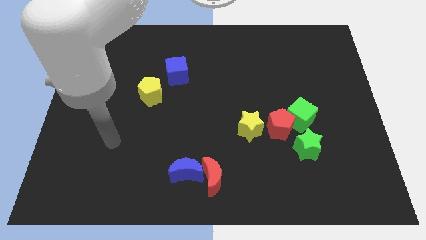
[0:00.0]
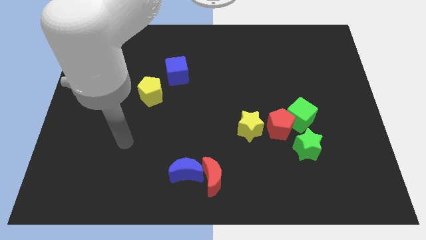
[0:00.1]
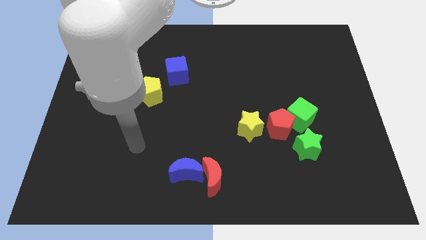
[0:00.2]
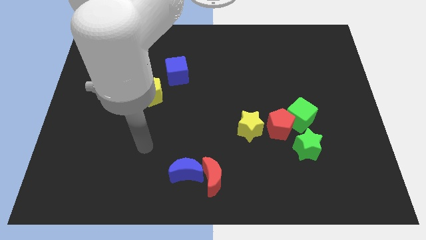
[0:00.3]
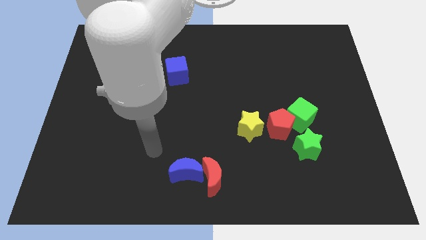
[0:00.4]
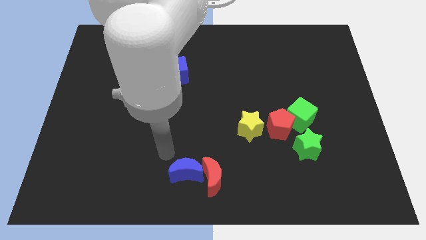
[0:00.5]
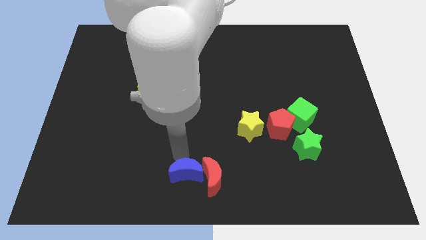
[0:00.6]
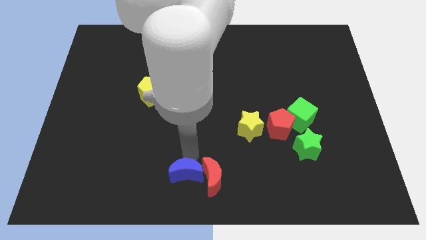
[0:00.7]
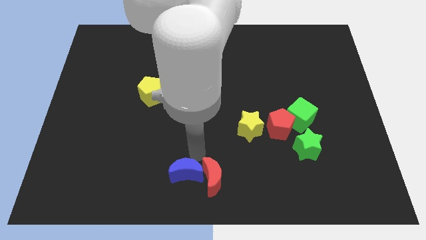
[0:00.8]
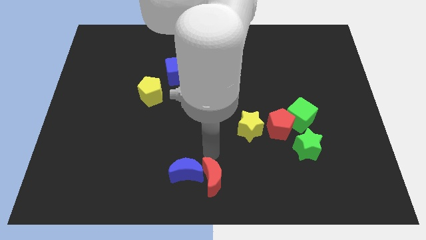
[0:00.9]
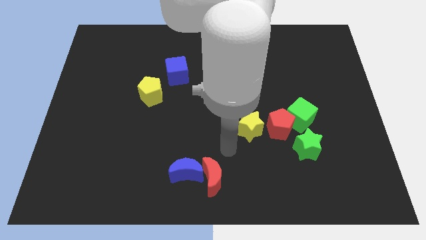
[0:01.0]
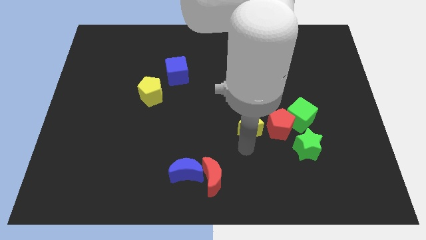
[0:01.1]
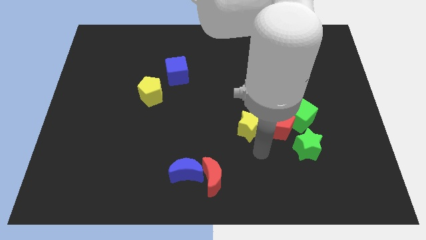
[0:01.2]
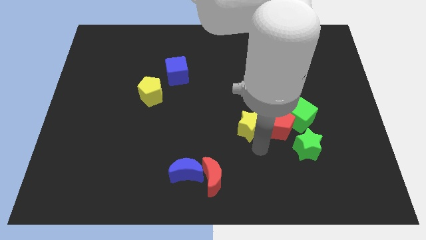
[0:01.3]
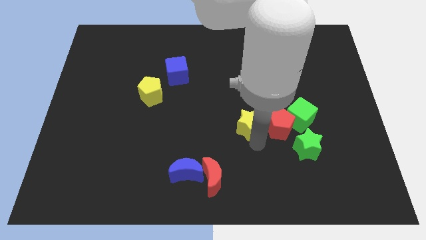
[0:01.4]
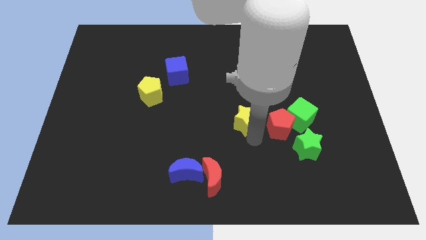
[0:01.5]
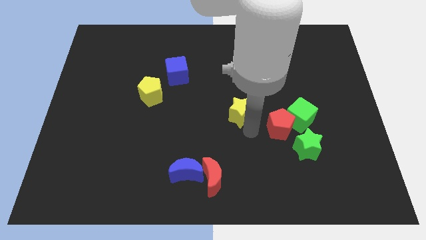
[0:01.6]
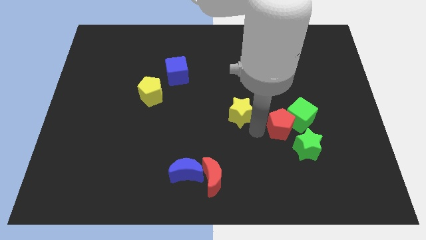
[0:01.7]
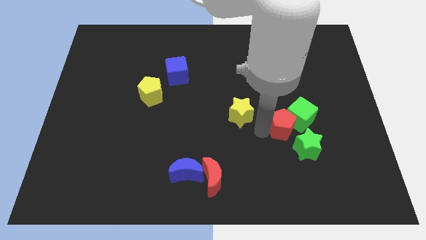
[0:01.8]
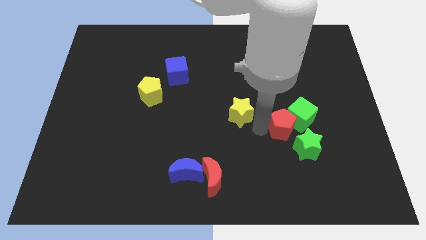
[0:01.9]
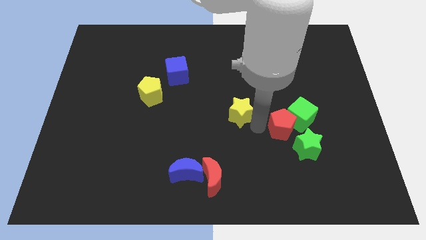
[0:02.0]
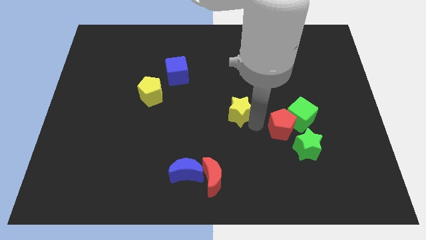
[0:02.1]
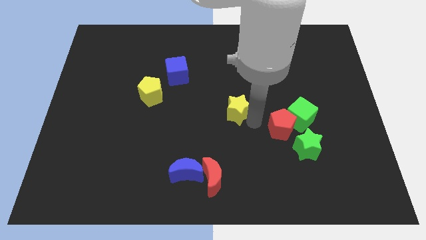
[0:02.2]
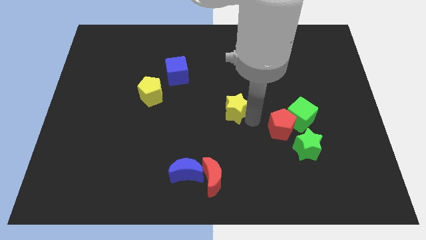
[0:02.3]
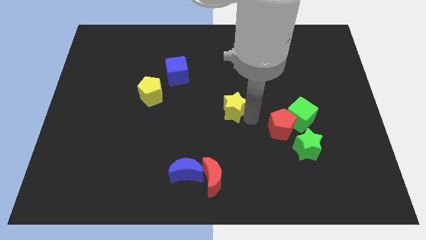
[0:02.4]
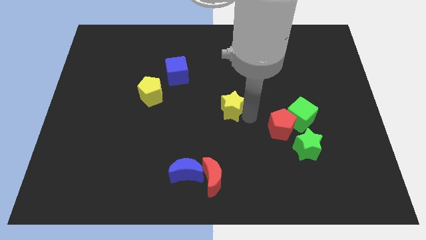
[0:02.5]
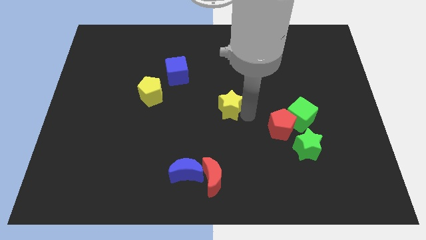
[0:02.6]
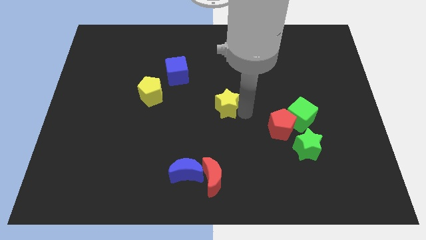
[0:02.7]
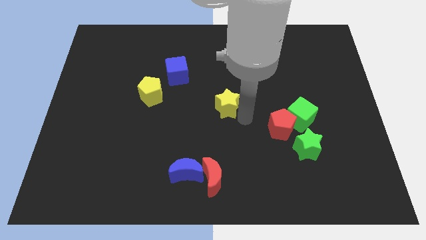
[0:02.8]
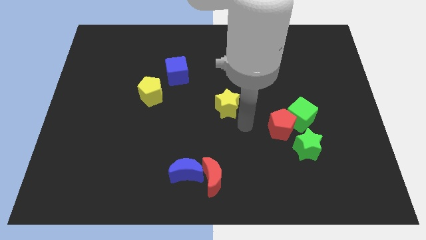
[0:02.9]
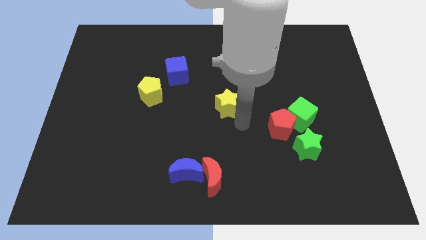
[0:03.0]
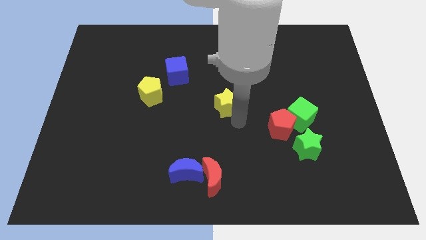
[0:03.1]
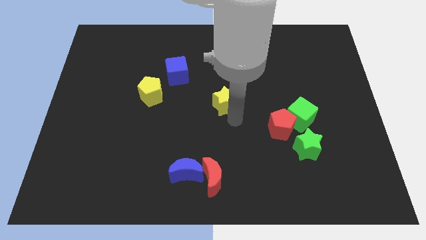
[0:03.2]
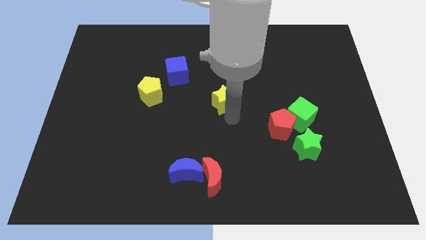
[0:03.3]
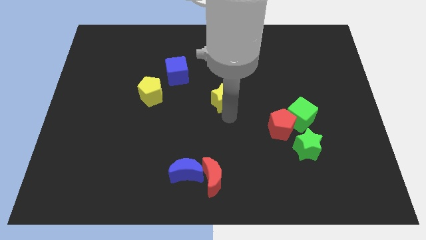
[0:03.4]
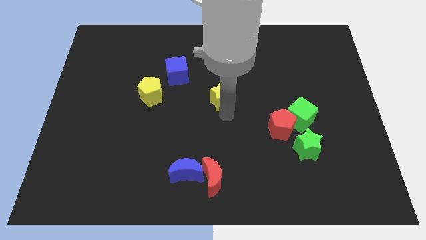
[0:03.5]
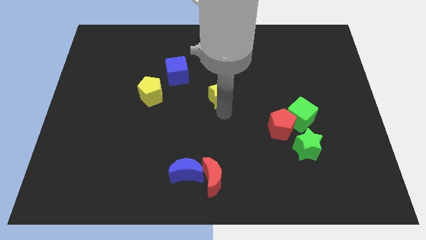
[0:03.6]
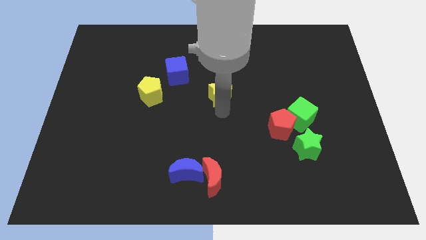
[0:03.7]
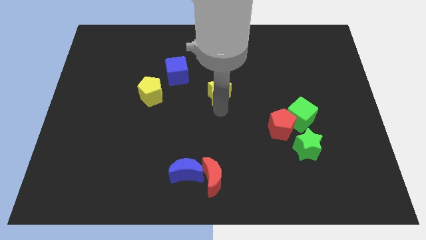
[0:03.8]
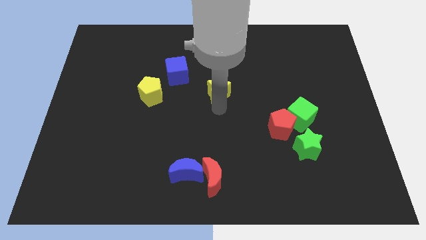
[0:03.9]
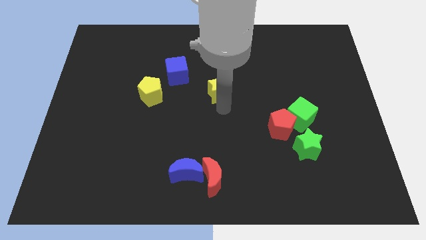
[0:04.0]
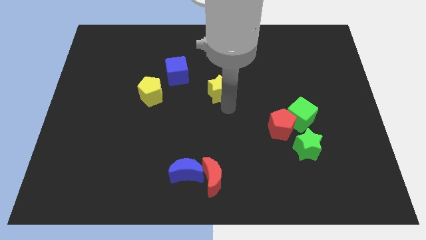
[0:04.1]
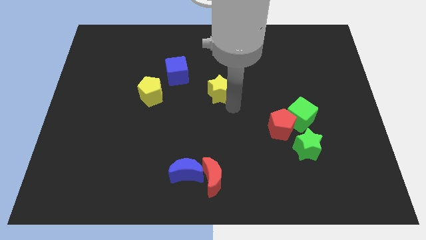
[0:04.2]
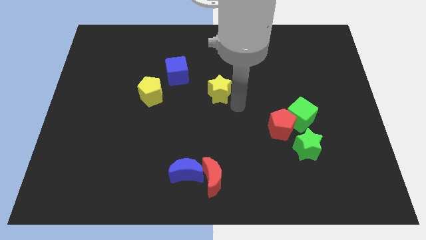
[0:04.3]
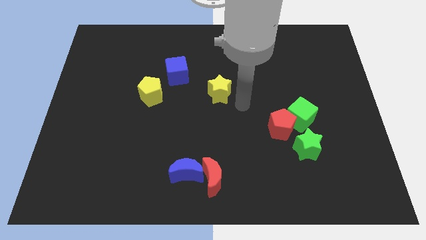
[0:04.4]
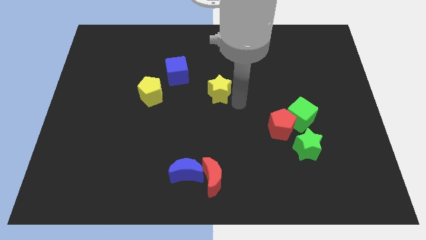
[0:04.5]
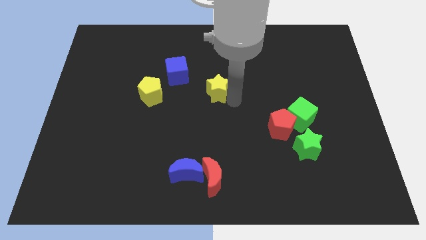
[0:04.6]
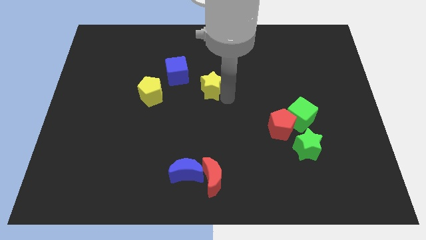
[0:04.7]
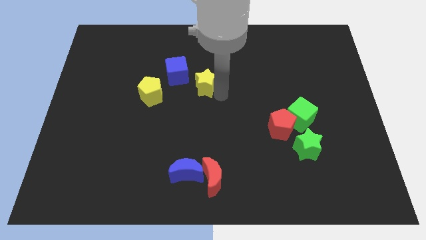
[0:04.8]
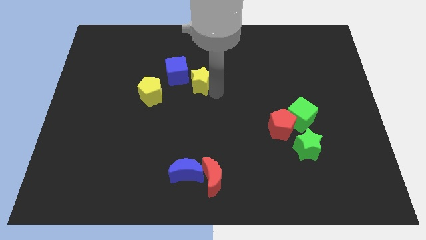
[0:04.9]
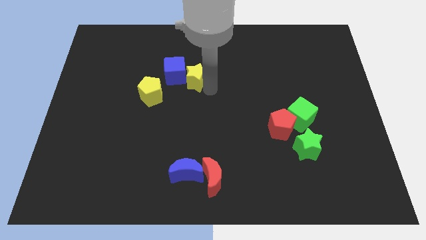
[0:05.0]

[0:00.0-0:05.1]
put the yellow star to the blue cube

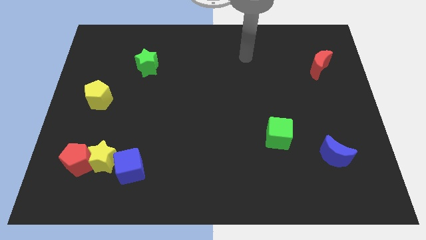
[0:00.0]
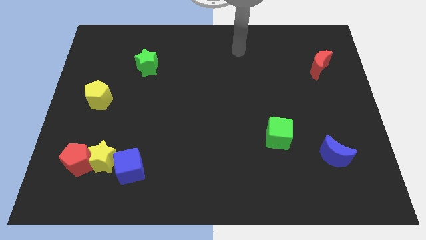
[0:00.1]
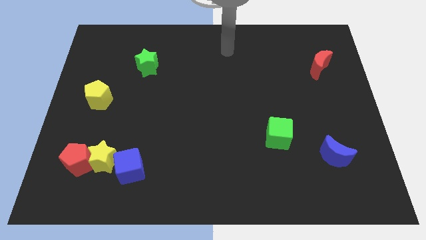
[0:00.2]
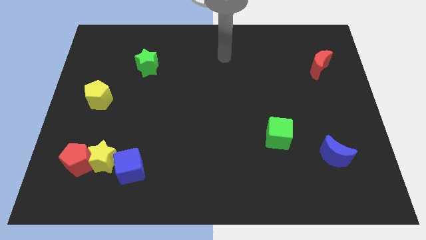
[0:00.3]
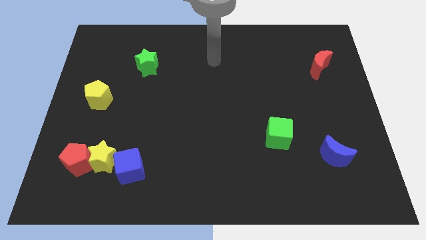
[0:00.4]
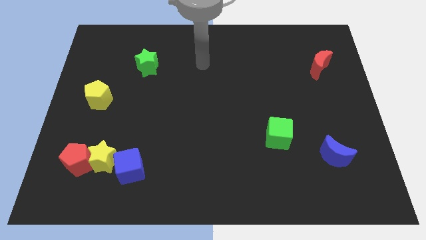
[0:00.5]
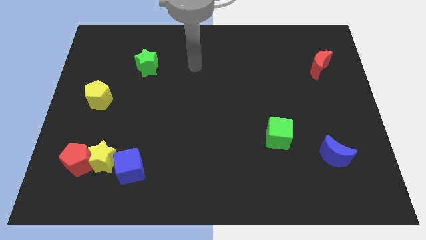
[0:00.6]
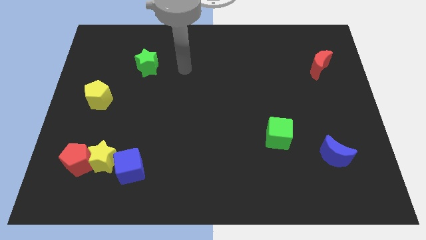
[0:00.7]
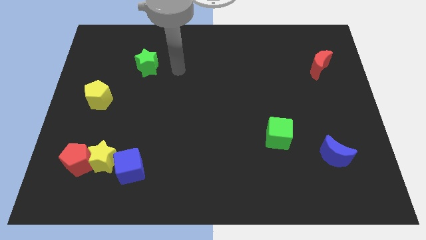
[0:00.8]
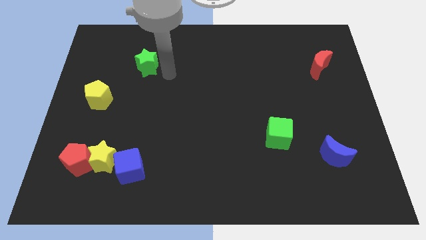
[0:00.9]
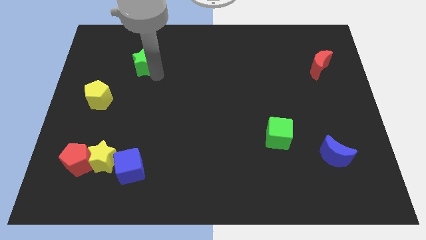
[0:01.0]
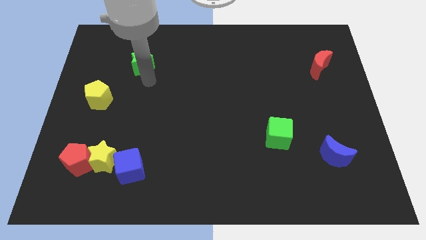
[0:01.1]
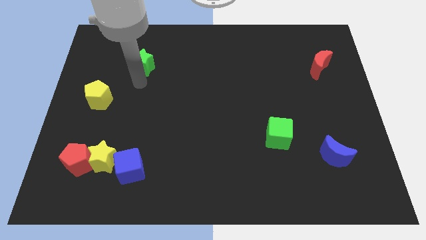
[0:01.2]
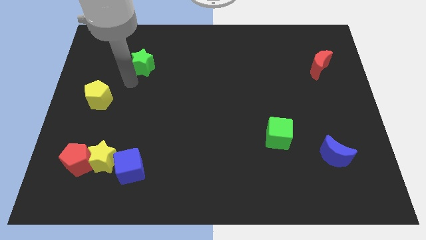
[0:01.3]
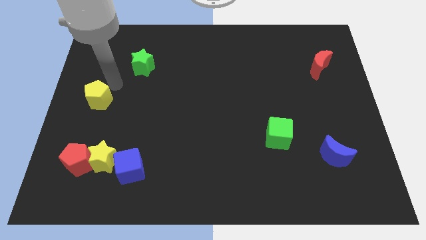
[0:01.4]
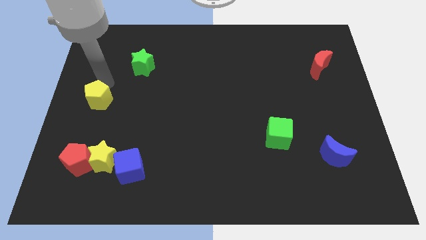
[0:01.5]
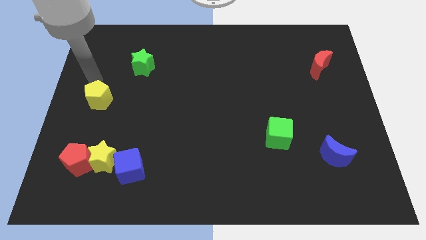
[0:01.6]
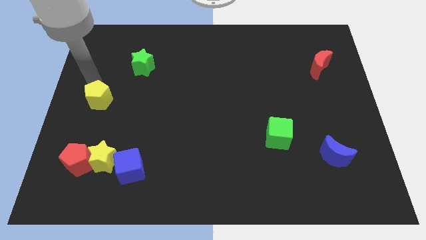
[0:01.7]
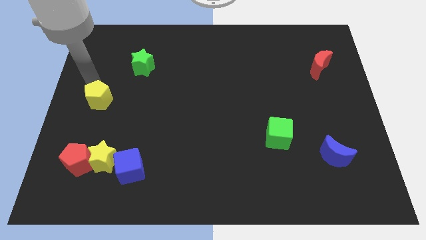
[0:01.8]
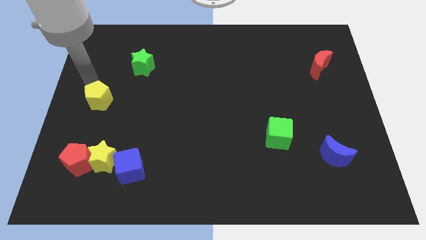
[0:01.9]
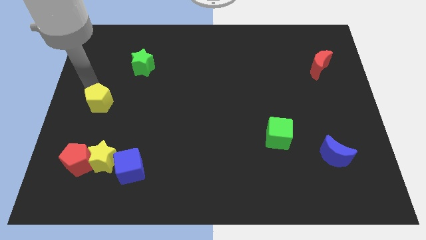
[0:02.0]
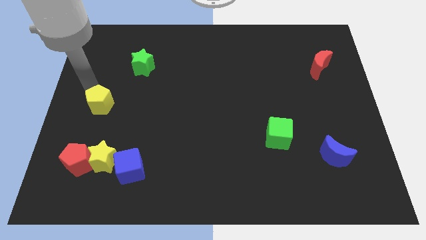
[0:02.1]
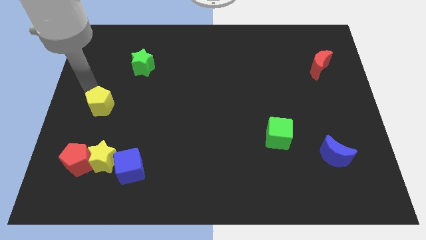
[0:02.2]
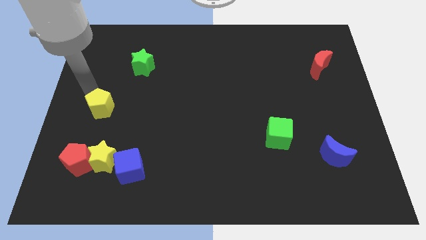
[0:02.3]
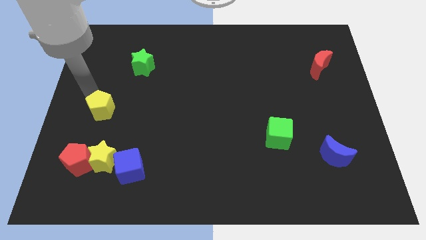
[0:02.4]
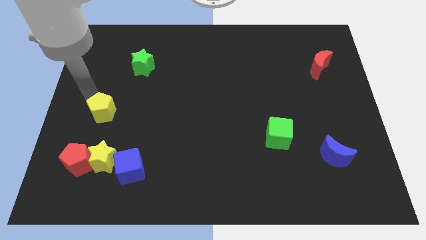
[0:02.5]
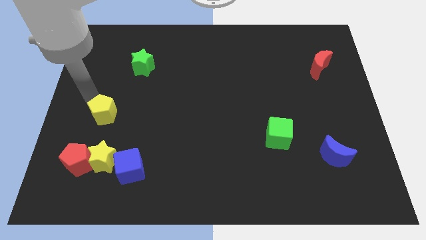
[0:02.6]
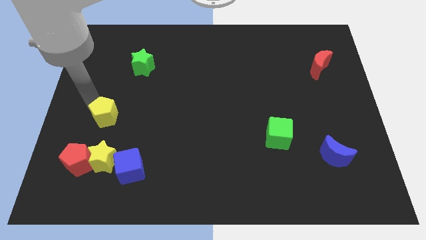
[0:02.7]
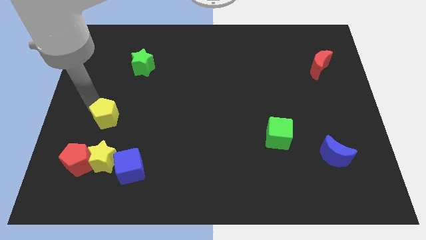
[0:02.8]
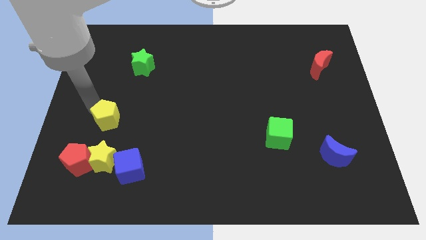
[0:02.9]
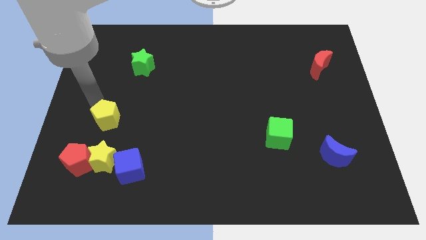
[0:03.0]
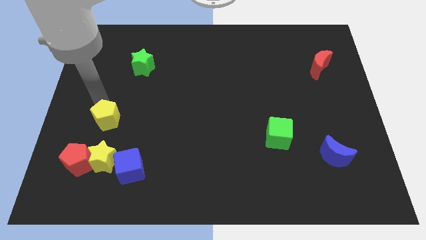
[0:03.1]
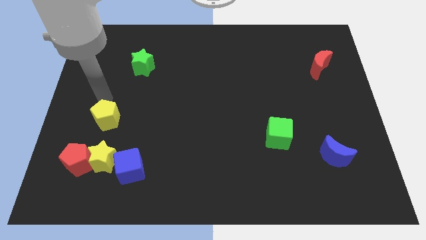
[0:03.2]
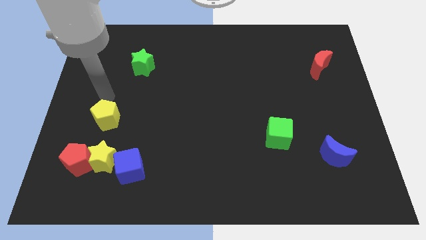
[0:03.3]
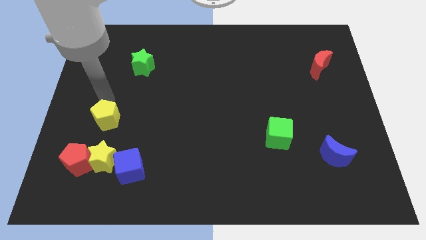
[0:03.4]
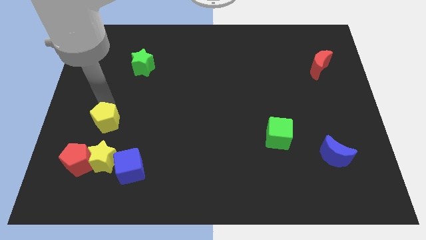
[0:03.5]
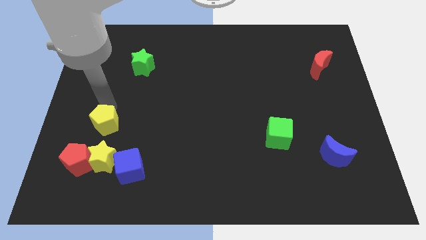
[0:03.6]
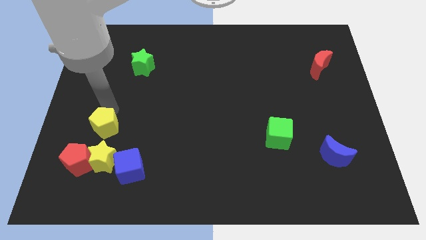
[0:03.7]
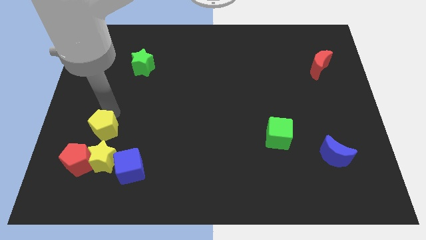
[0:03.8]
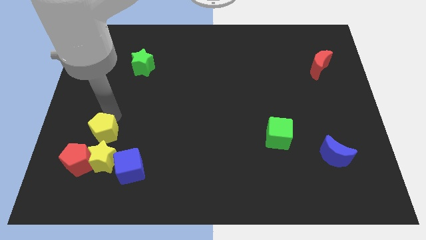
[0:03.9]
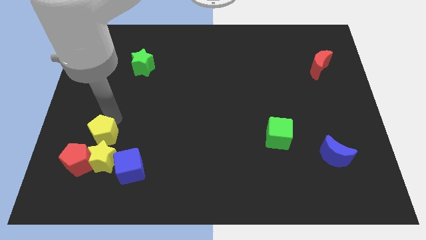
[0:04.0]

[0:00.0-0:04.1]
move the yellow pentagon next to the yellow star
